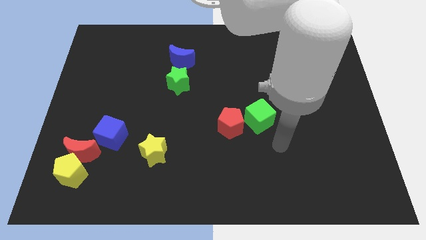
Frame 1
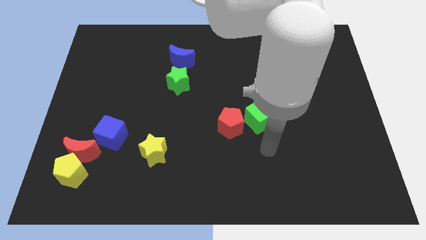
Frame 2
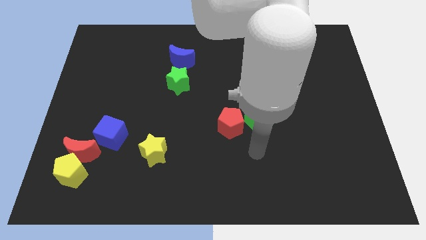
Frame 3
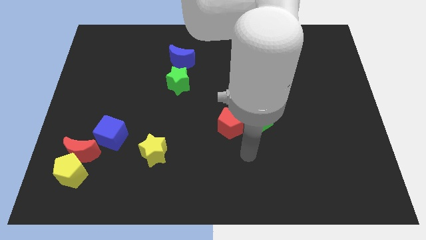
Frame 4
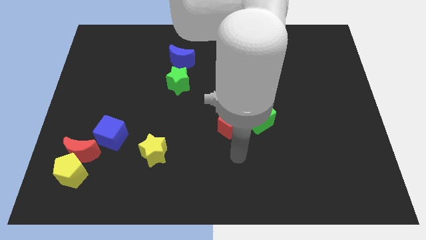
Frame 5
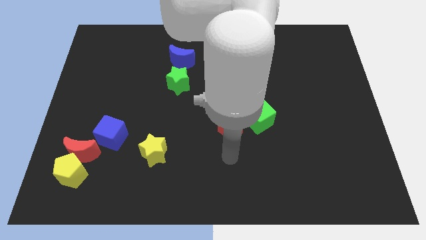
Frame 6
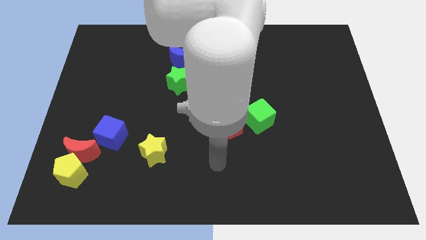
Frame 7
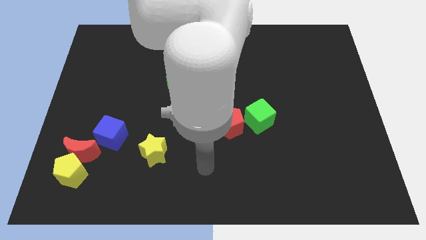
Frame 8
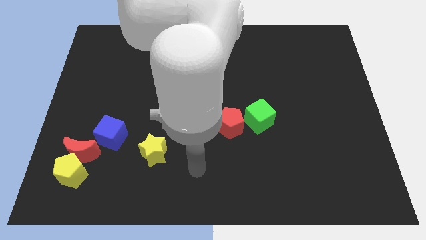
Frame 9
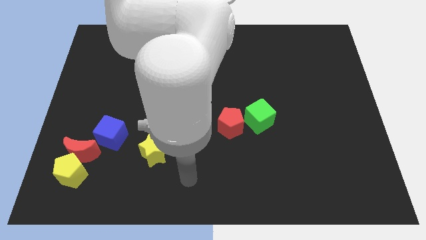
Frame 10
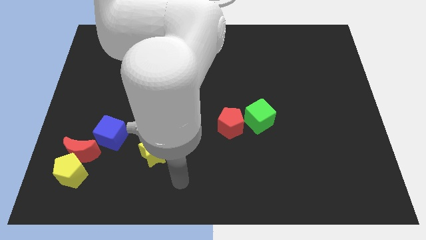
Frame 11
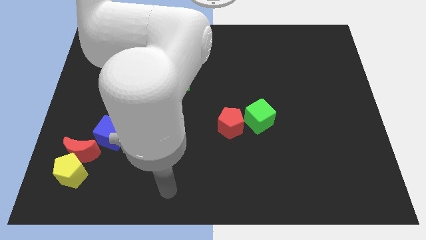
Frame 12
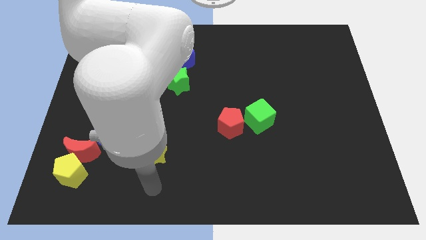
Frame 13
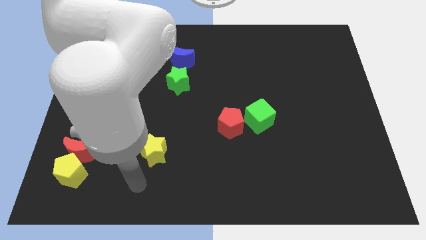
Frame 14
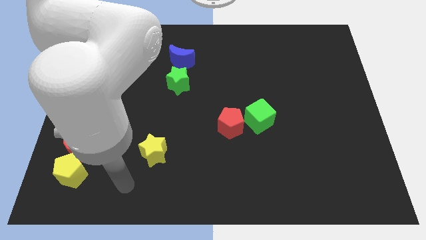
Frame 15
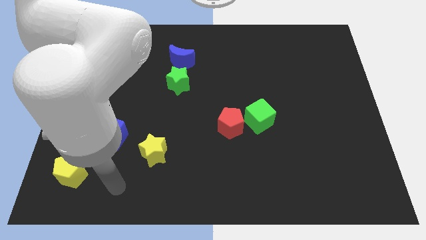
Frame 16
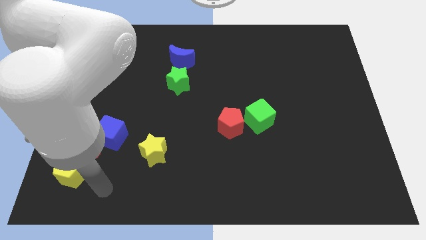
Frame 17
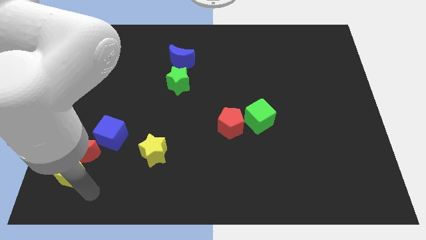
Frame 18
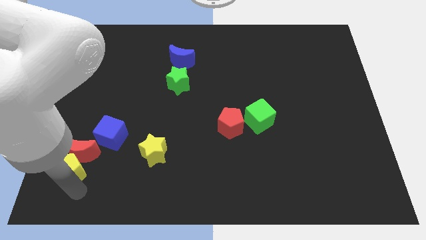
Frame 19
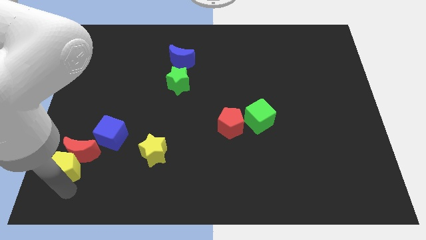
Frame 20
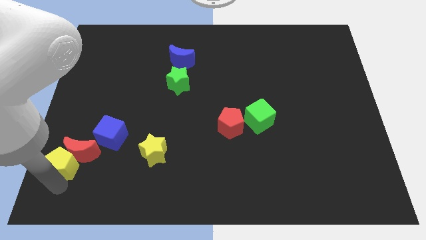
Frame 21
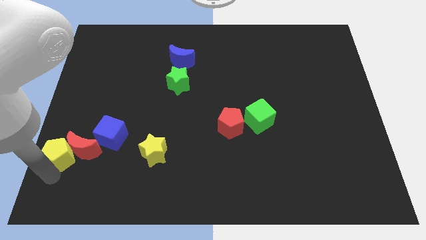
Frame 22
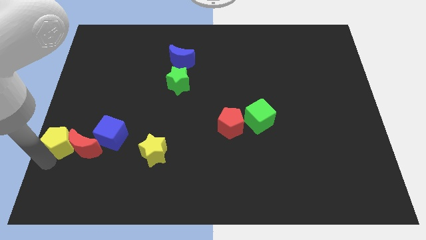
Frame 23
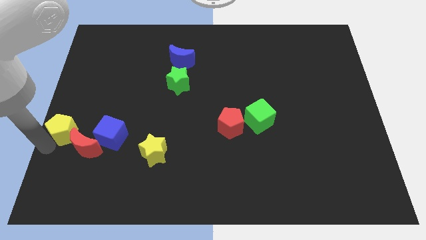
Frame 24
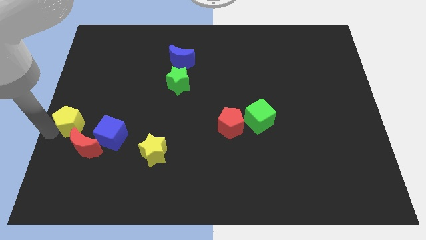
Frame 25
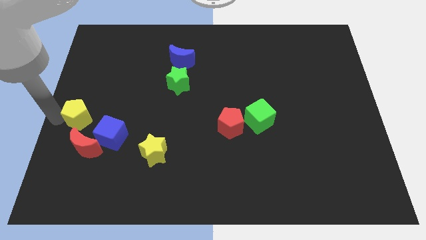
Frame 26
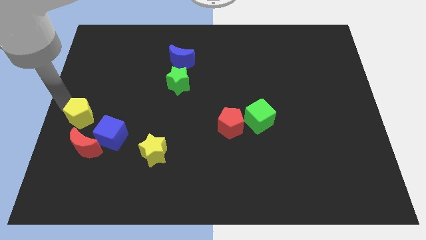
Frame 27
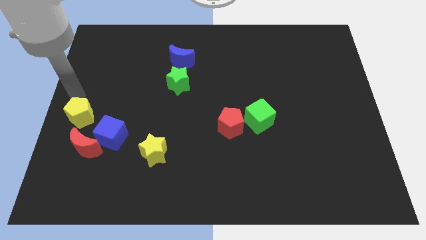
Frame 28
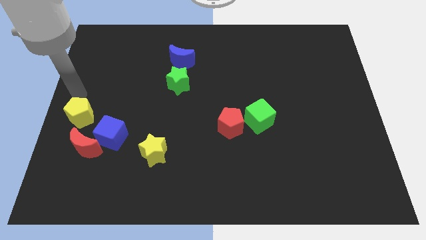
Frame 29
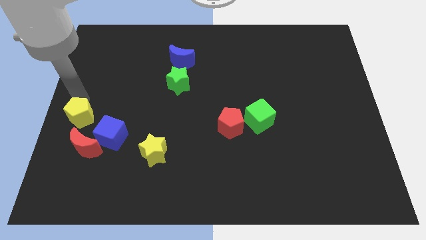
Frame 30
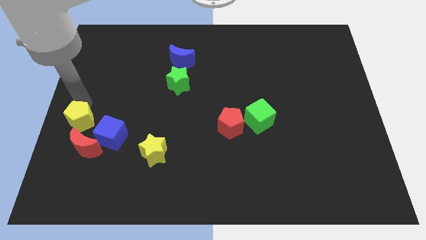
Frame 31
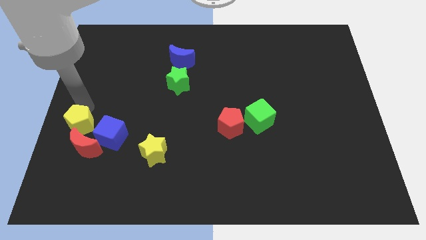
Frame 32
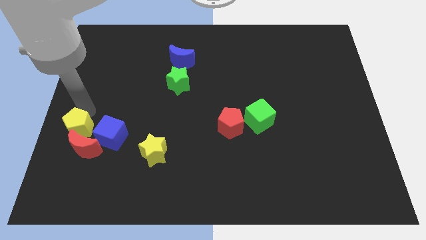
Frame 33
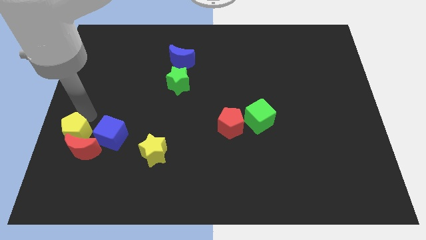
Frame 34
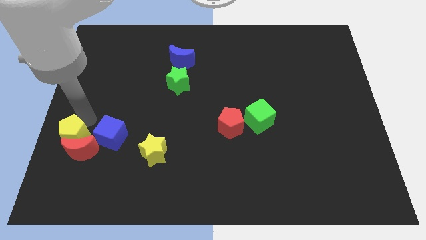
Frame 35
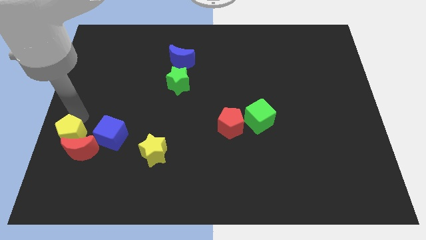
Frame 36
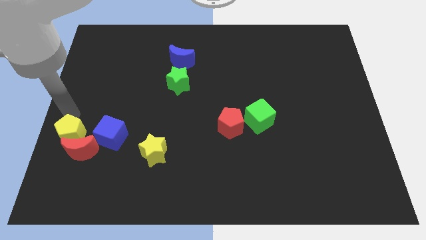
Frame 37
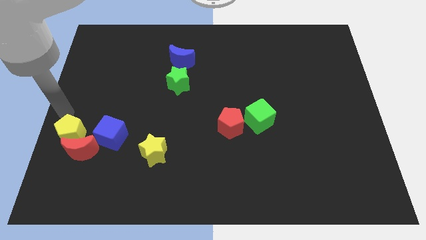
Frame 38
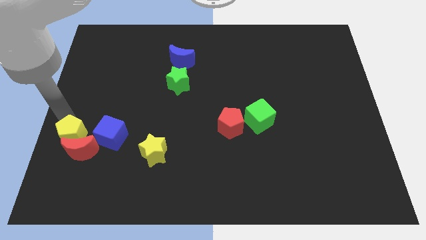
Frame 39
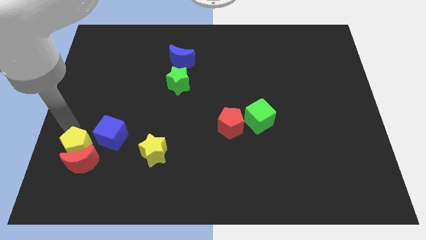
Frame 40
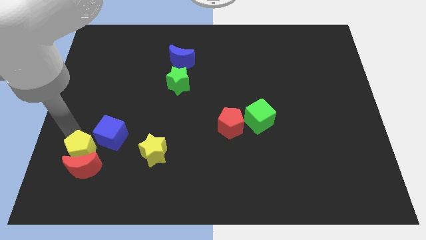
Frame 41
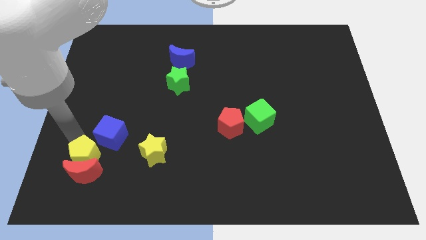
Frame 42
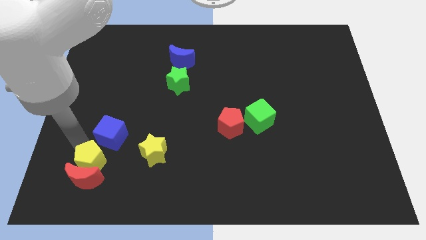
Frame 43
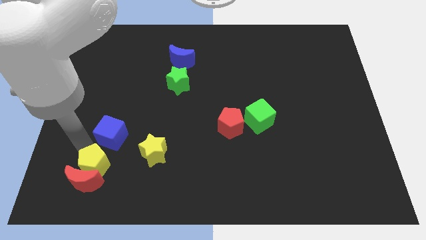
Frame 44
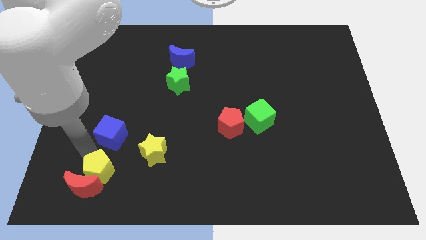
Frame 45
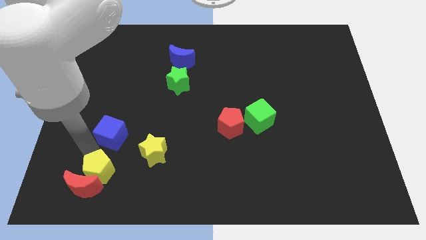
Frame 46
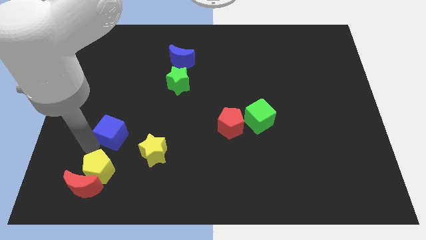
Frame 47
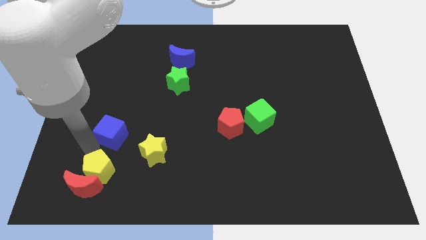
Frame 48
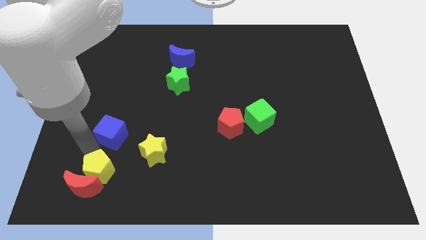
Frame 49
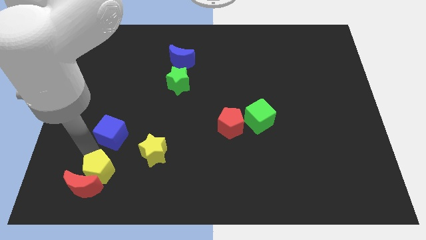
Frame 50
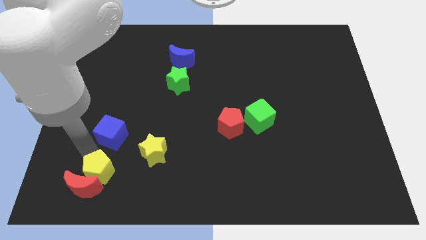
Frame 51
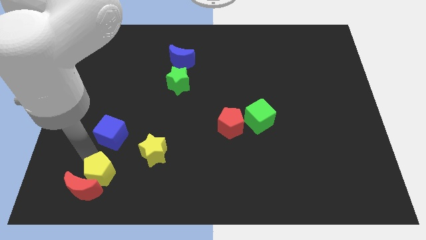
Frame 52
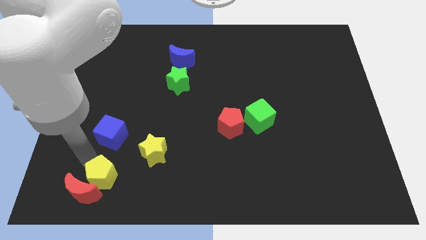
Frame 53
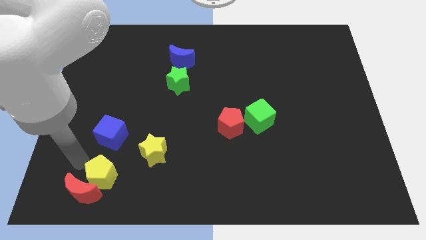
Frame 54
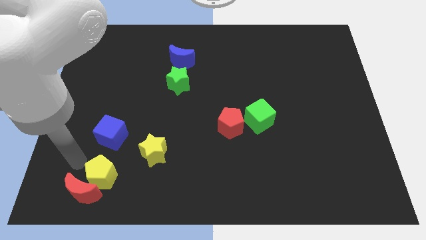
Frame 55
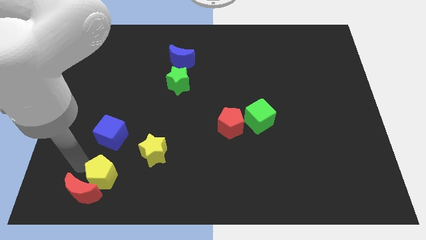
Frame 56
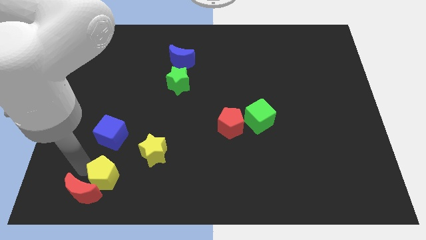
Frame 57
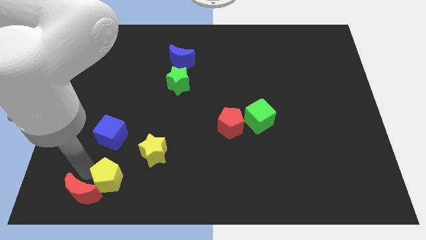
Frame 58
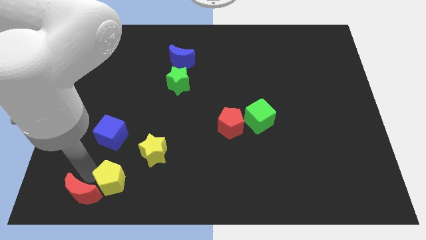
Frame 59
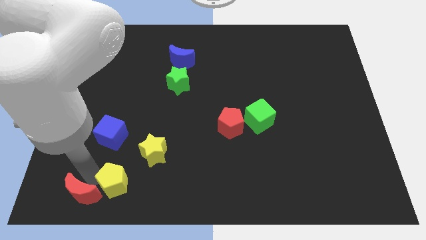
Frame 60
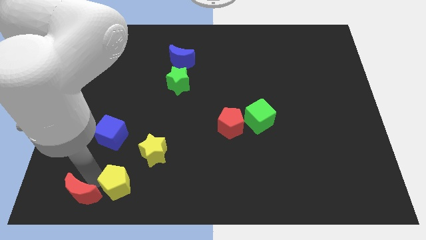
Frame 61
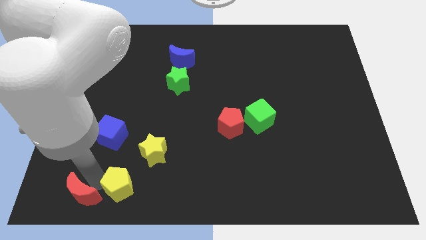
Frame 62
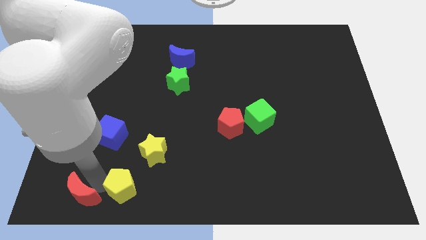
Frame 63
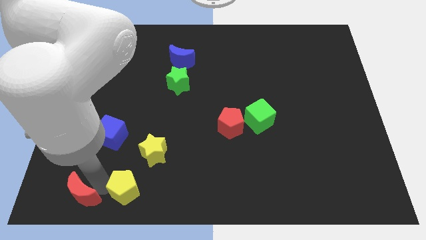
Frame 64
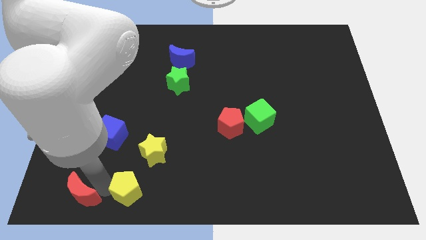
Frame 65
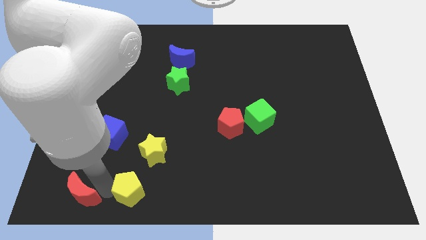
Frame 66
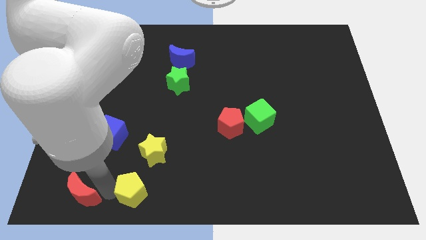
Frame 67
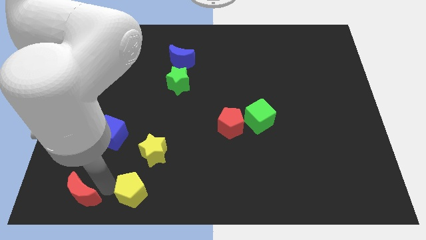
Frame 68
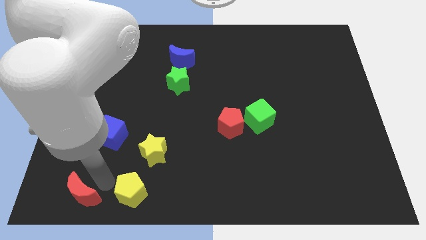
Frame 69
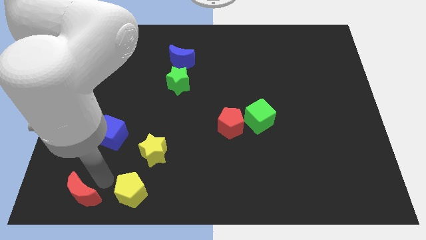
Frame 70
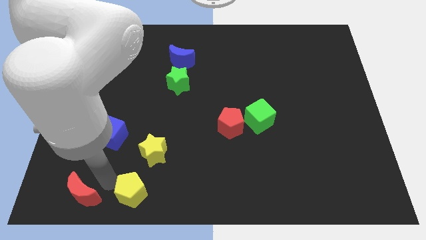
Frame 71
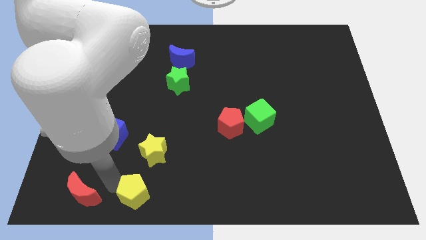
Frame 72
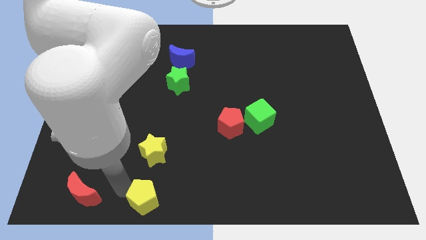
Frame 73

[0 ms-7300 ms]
slide the yellow pentagon to the bottom
